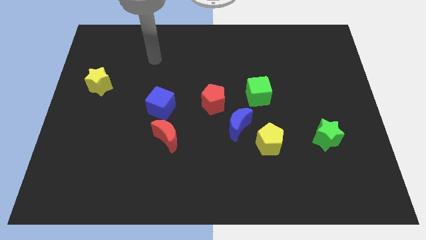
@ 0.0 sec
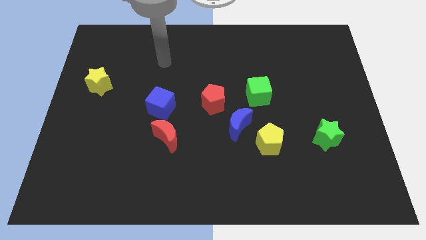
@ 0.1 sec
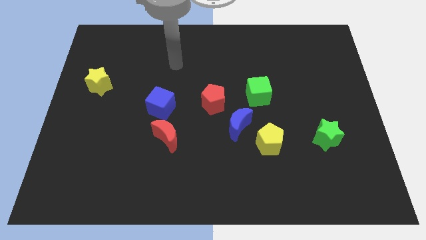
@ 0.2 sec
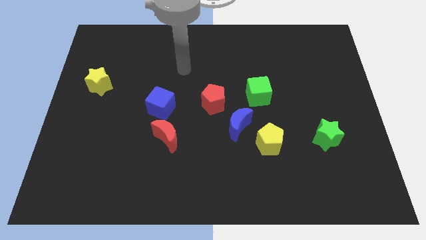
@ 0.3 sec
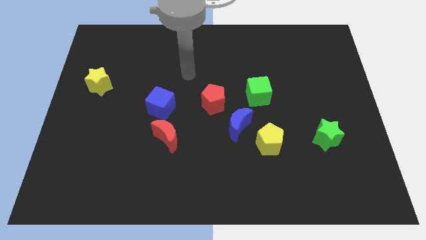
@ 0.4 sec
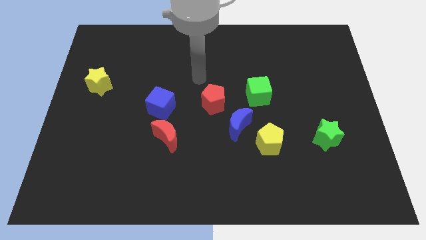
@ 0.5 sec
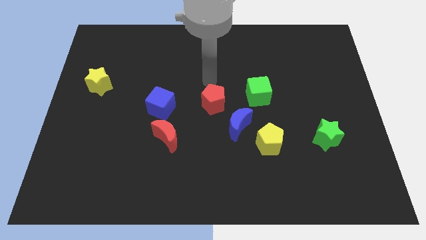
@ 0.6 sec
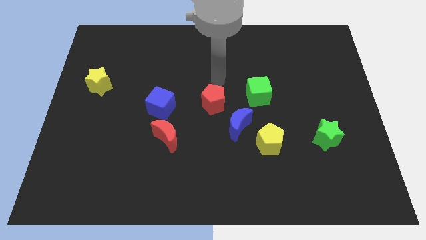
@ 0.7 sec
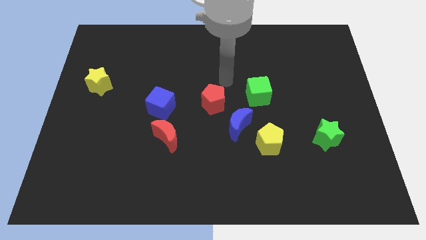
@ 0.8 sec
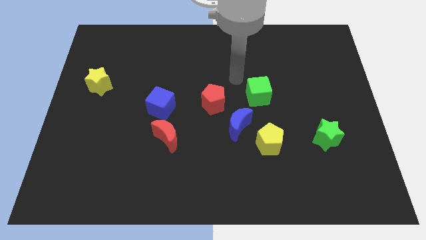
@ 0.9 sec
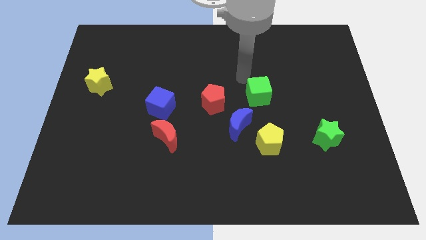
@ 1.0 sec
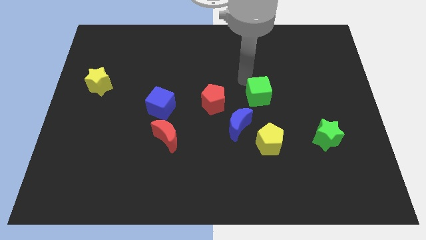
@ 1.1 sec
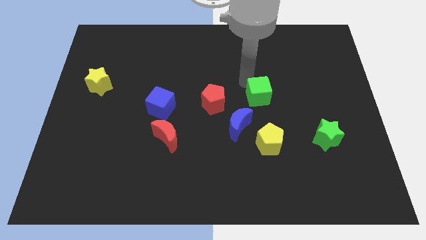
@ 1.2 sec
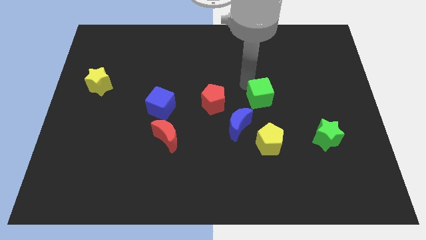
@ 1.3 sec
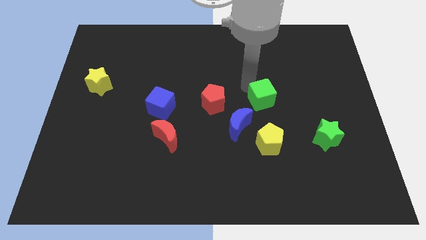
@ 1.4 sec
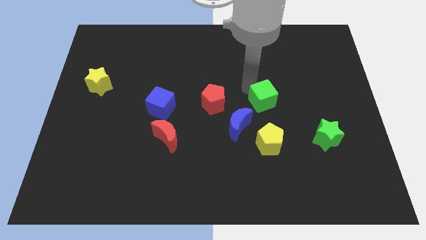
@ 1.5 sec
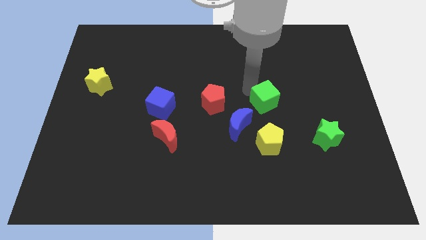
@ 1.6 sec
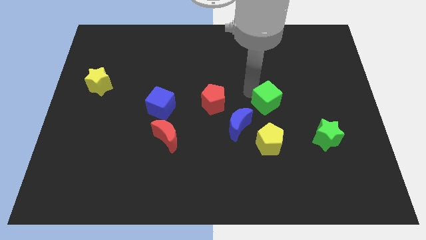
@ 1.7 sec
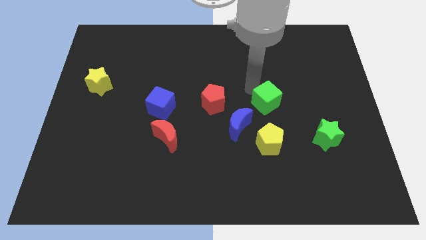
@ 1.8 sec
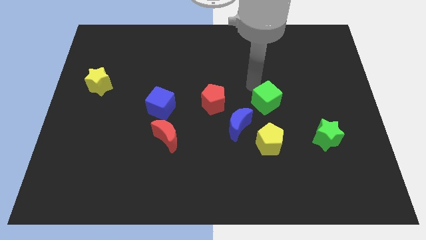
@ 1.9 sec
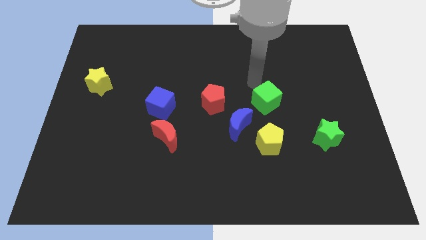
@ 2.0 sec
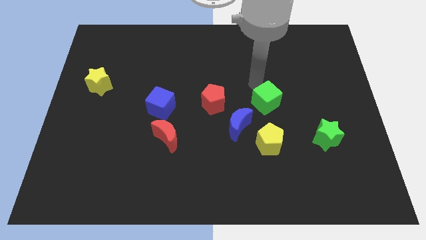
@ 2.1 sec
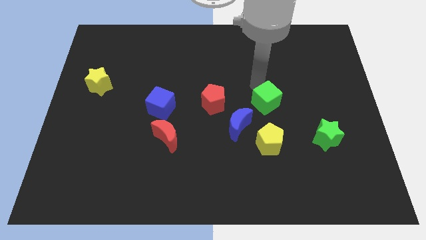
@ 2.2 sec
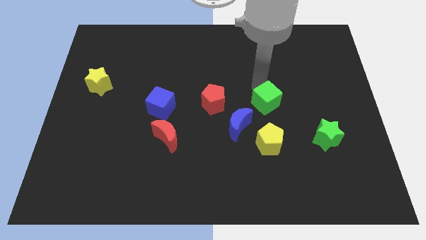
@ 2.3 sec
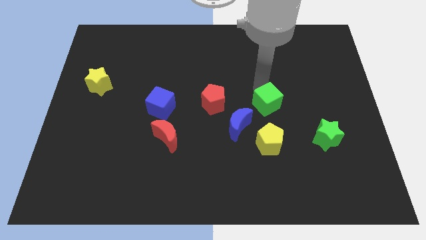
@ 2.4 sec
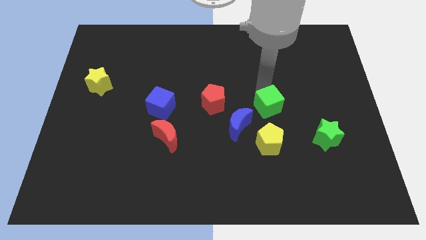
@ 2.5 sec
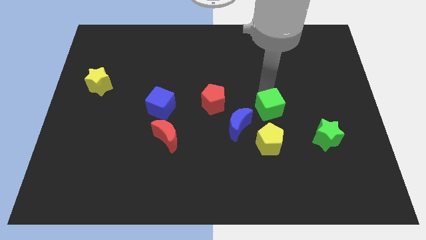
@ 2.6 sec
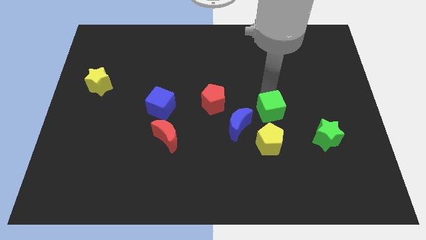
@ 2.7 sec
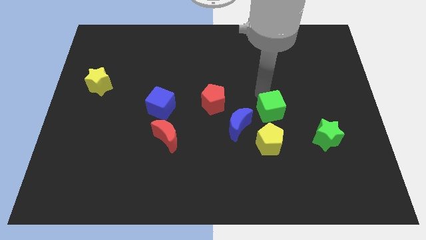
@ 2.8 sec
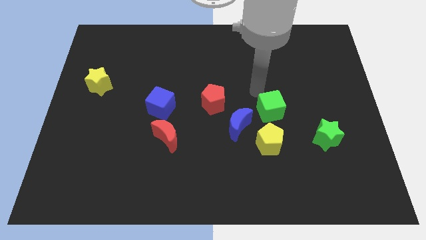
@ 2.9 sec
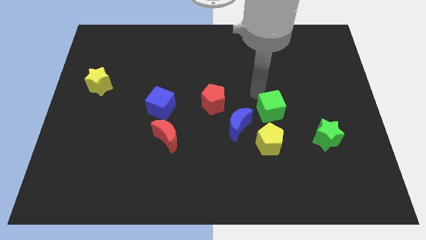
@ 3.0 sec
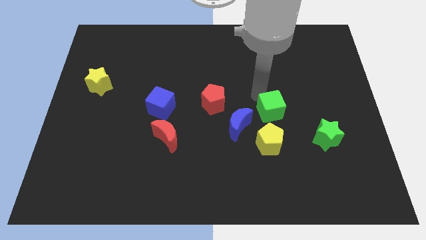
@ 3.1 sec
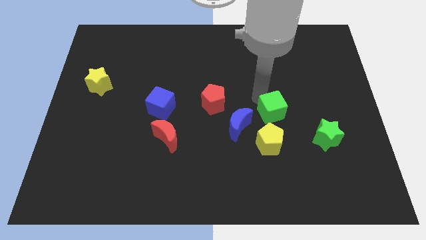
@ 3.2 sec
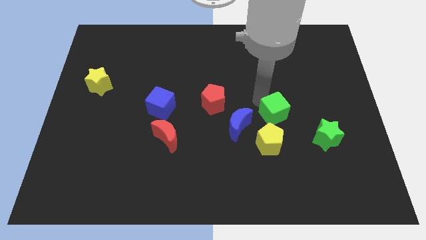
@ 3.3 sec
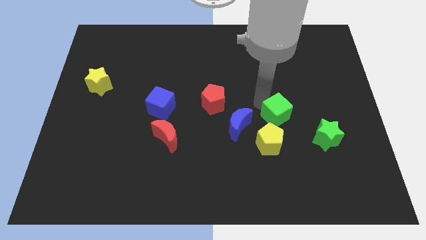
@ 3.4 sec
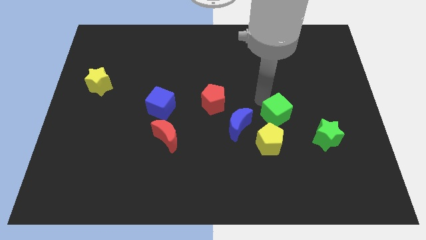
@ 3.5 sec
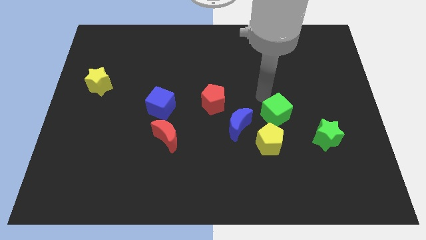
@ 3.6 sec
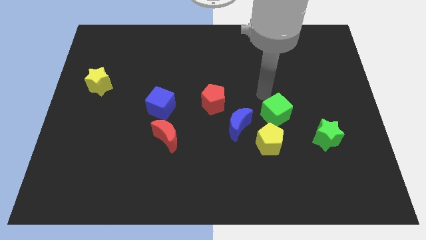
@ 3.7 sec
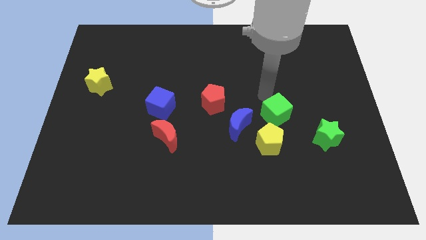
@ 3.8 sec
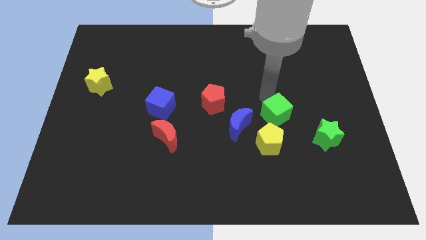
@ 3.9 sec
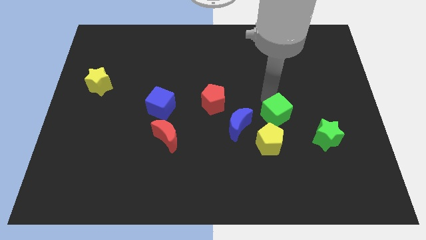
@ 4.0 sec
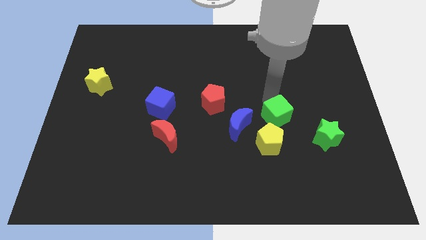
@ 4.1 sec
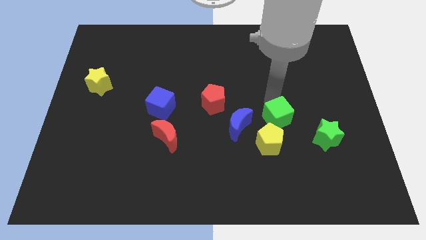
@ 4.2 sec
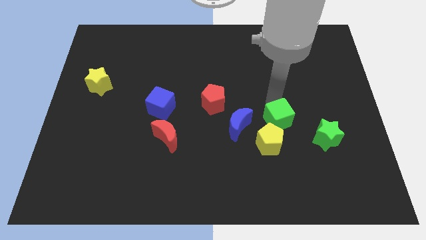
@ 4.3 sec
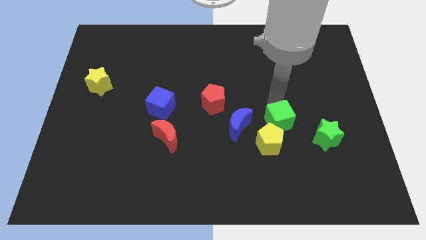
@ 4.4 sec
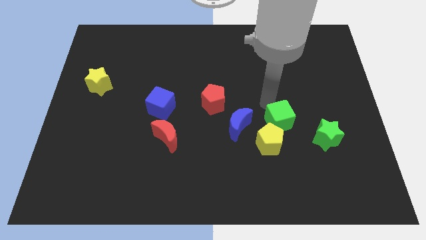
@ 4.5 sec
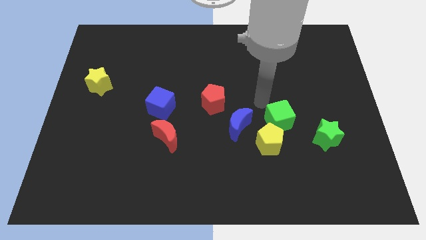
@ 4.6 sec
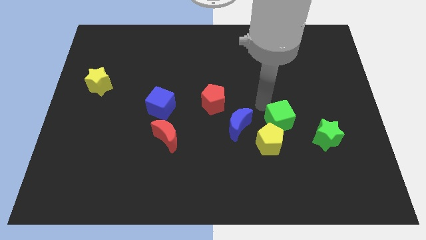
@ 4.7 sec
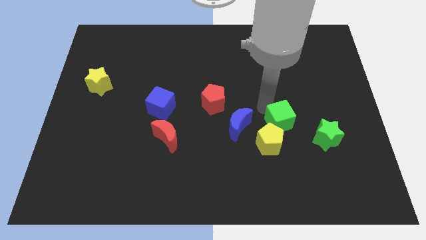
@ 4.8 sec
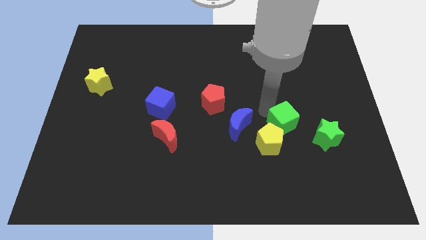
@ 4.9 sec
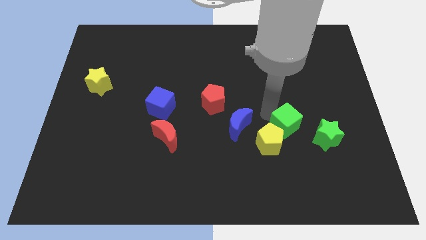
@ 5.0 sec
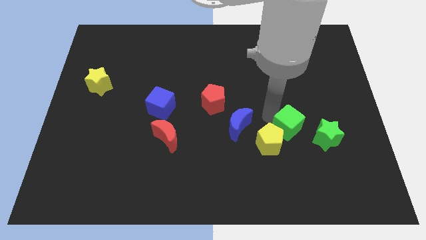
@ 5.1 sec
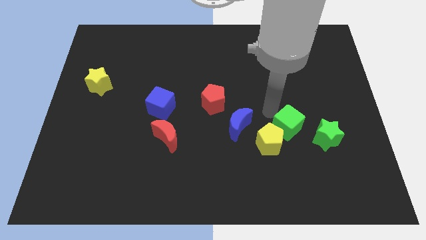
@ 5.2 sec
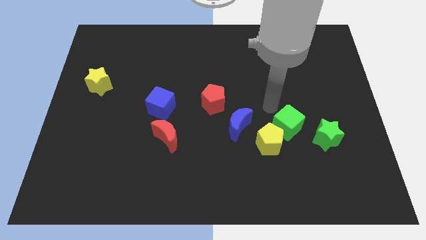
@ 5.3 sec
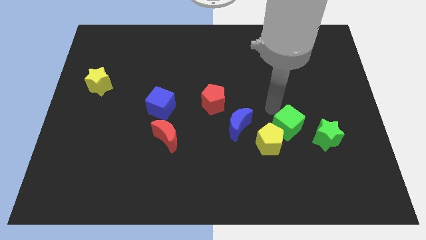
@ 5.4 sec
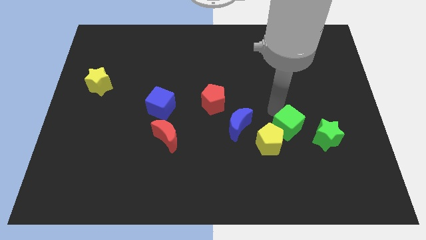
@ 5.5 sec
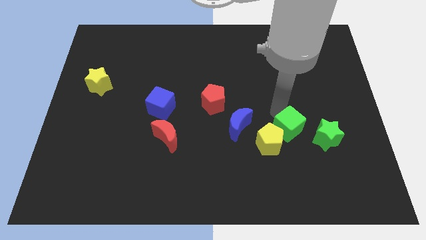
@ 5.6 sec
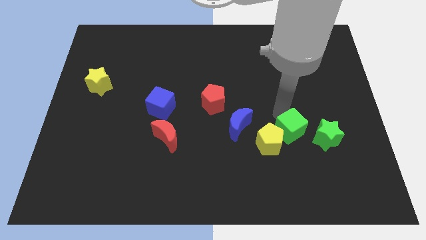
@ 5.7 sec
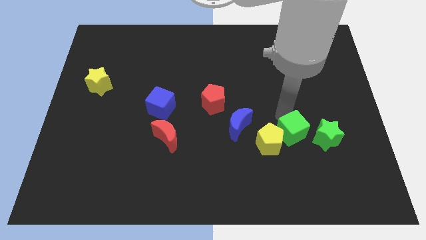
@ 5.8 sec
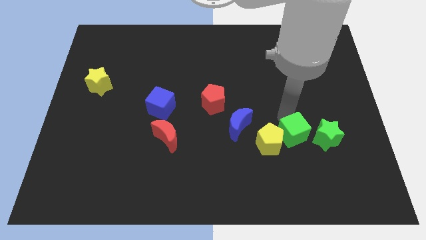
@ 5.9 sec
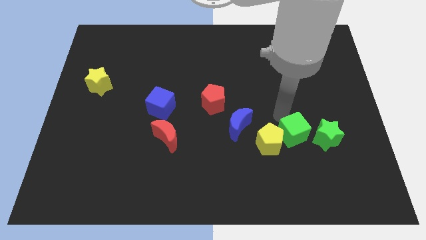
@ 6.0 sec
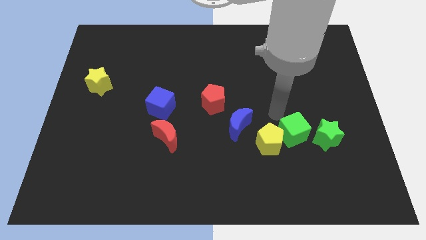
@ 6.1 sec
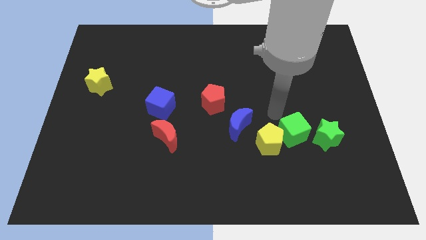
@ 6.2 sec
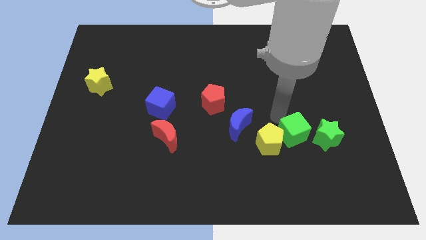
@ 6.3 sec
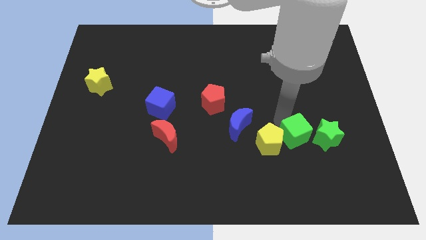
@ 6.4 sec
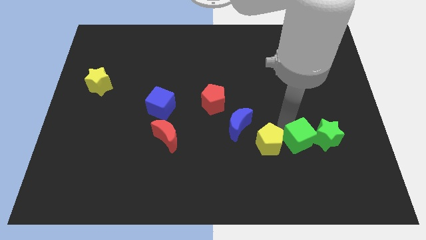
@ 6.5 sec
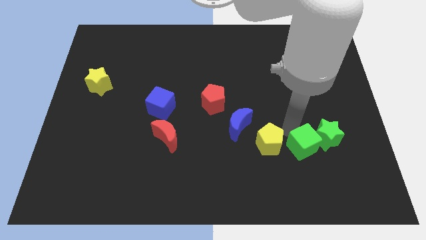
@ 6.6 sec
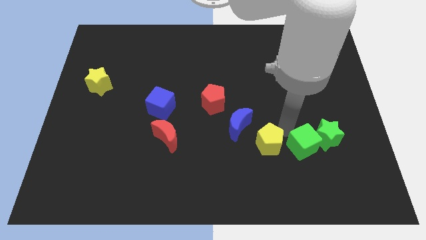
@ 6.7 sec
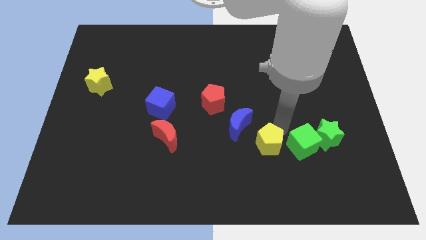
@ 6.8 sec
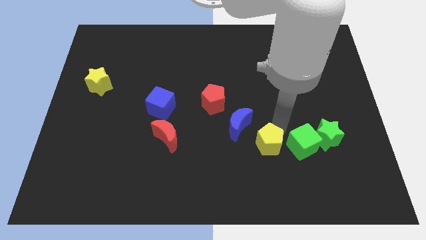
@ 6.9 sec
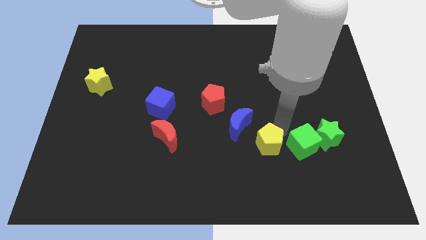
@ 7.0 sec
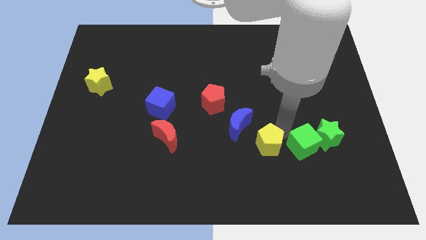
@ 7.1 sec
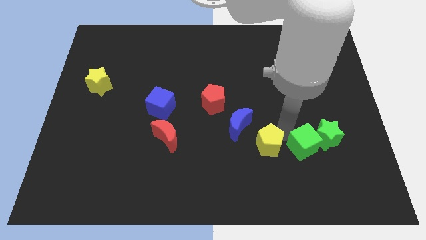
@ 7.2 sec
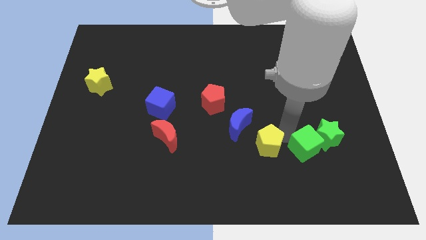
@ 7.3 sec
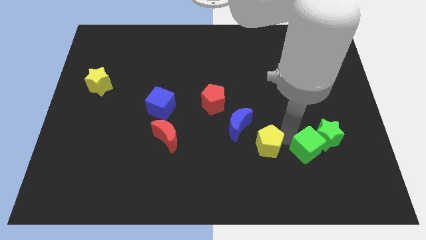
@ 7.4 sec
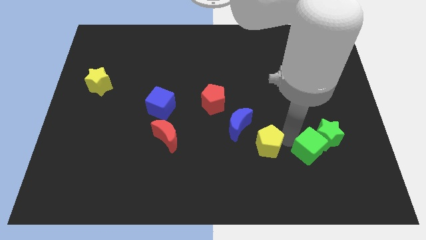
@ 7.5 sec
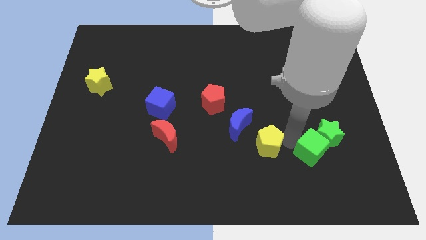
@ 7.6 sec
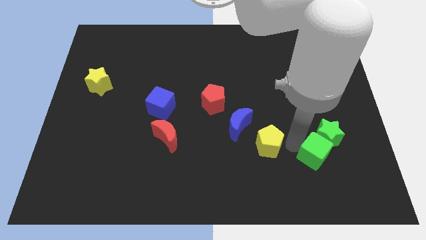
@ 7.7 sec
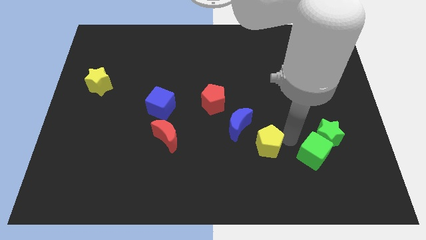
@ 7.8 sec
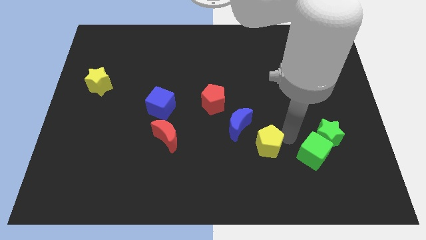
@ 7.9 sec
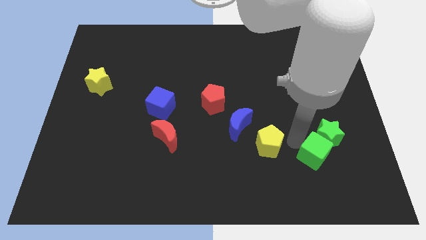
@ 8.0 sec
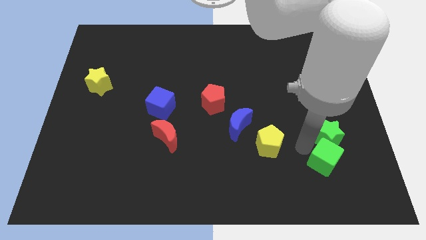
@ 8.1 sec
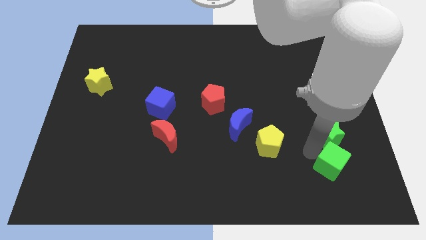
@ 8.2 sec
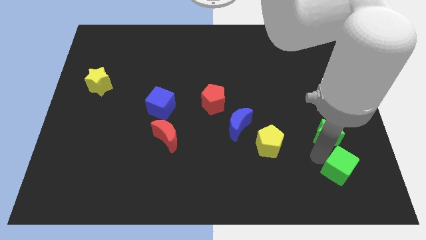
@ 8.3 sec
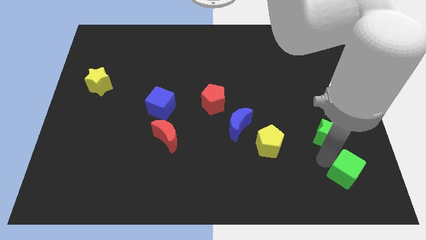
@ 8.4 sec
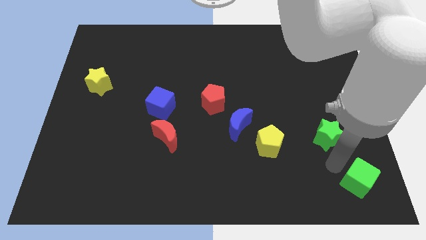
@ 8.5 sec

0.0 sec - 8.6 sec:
move the green cube to the bottom right of the board
